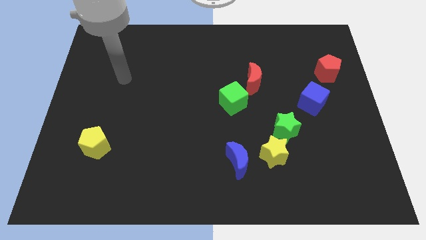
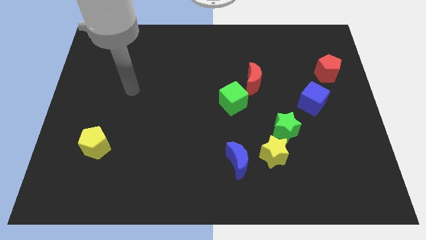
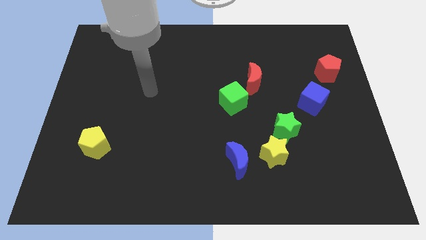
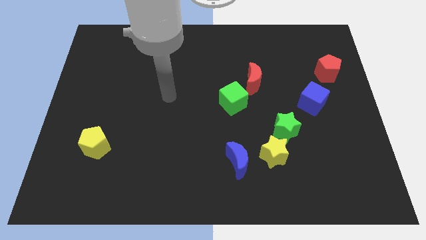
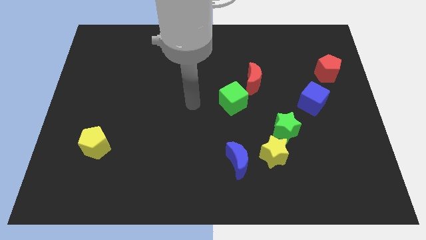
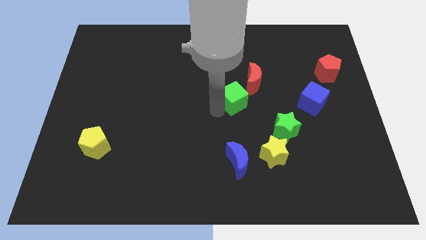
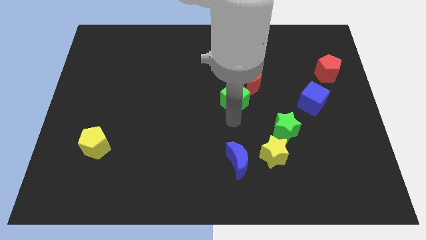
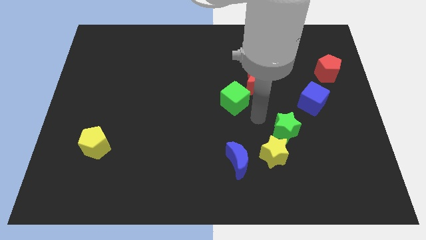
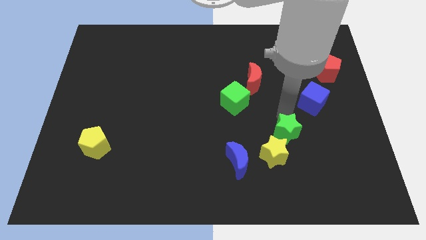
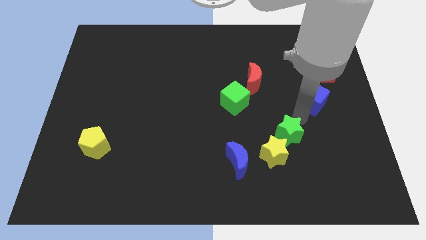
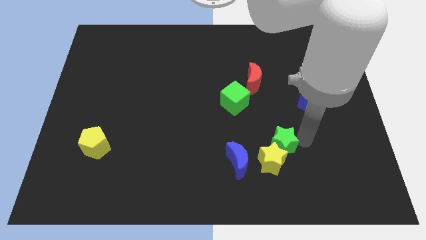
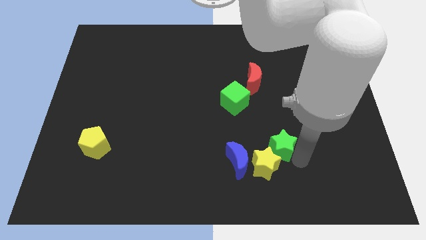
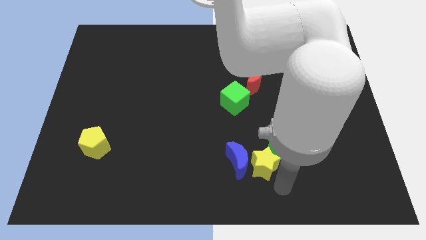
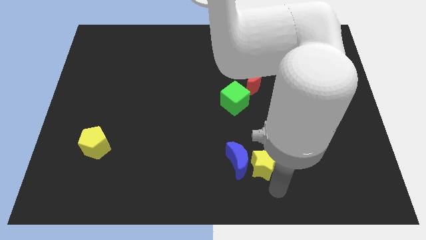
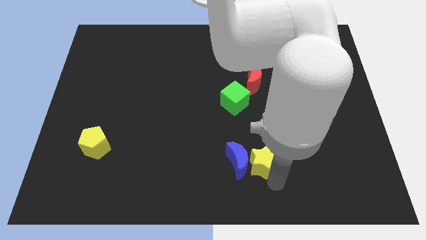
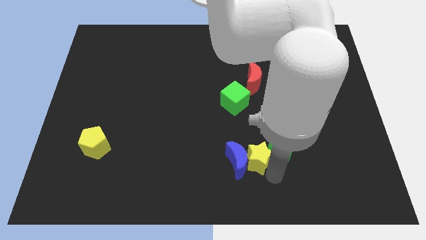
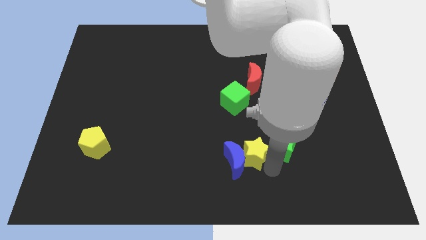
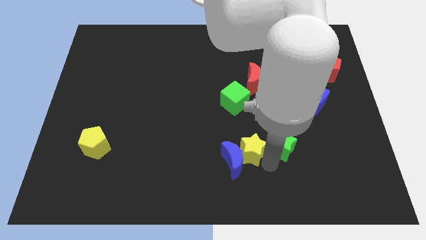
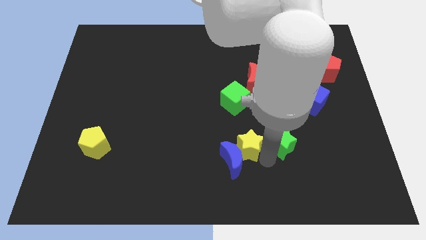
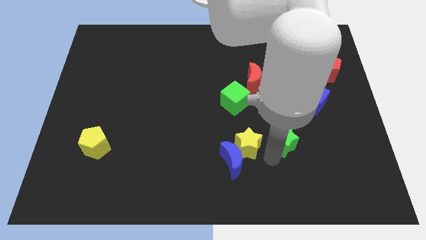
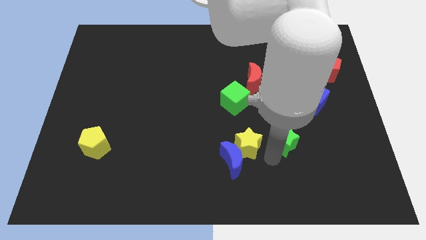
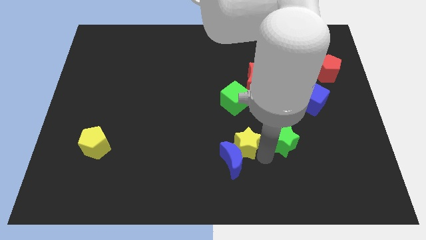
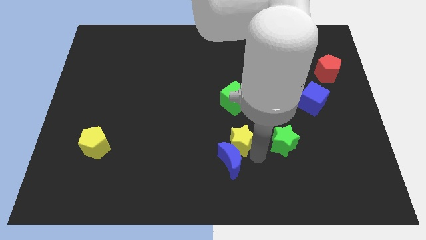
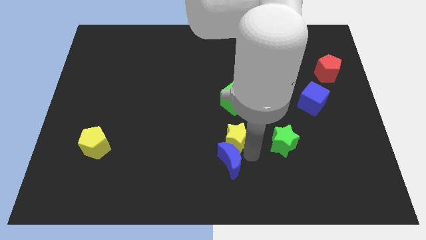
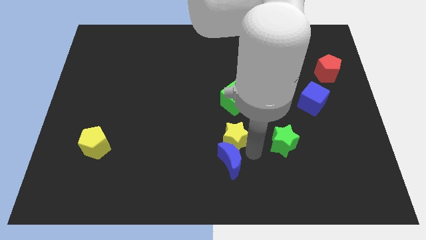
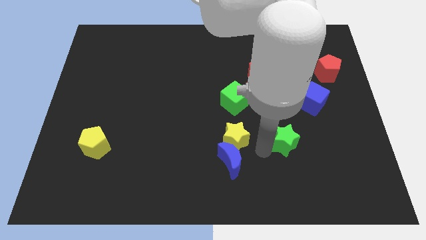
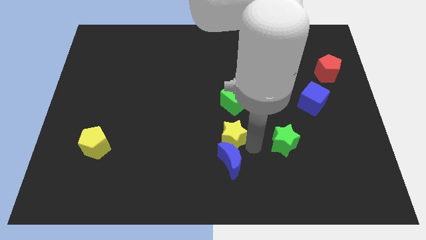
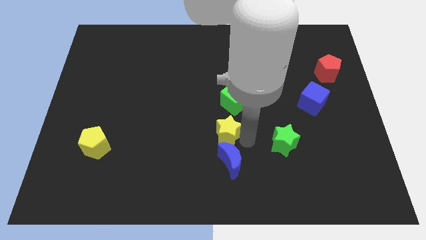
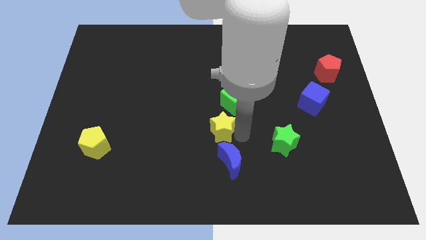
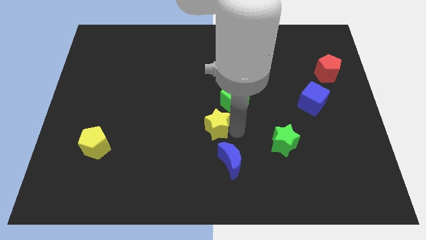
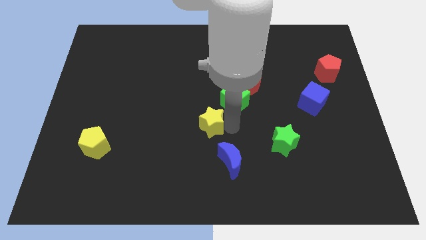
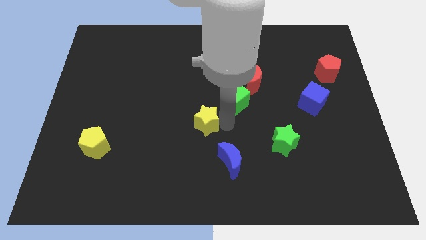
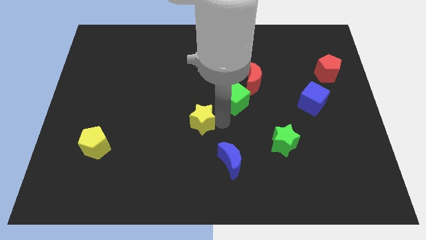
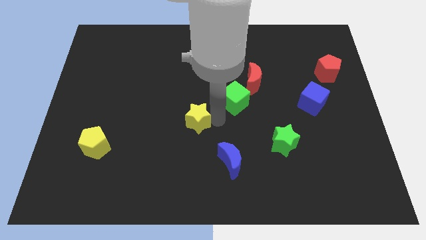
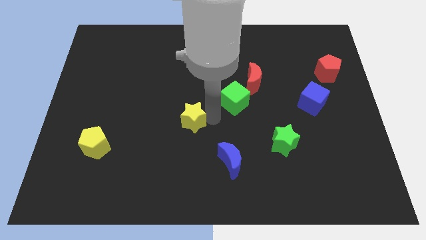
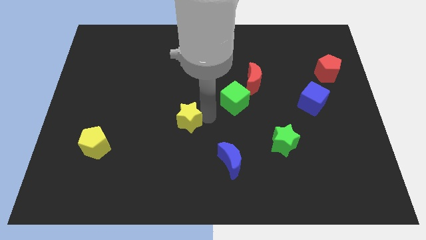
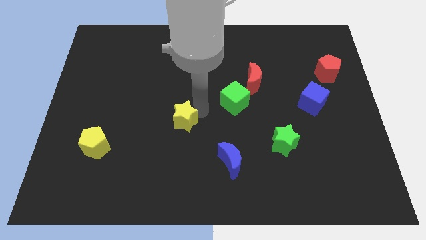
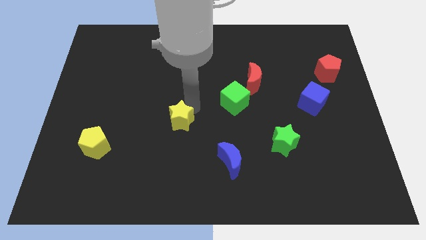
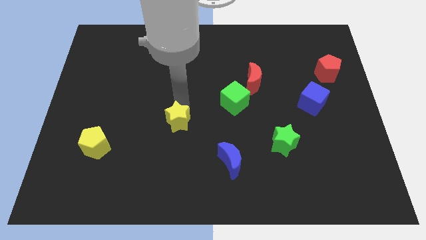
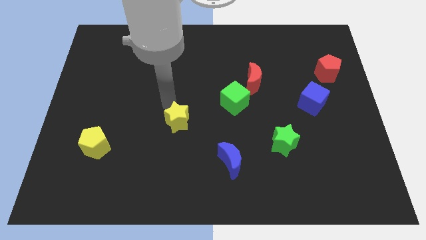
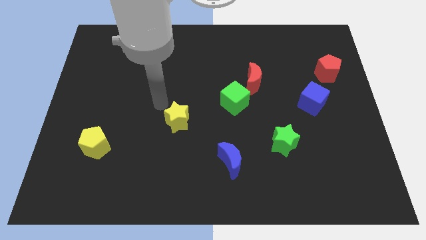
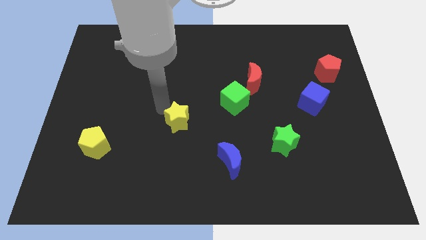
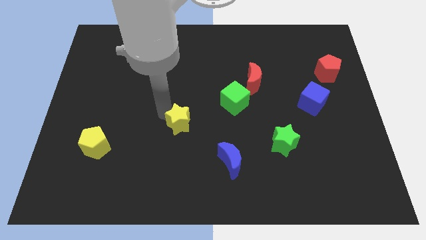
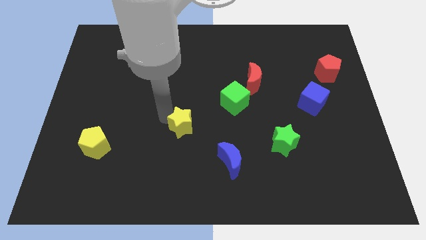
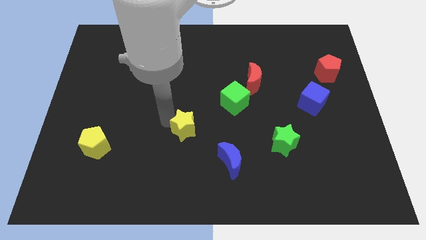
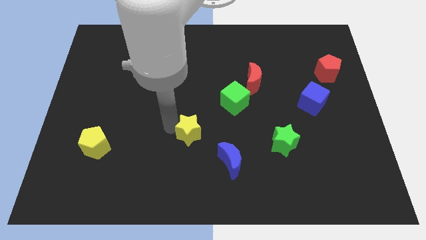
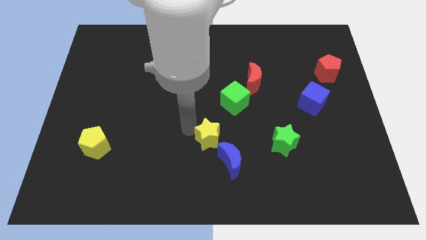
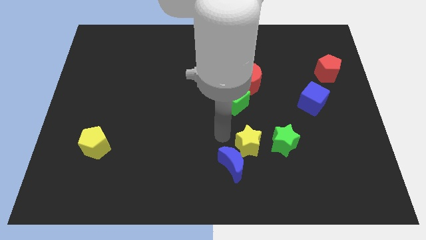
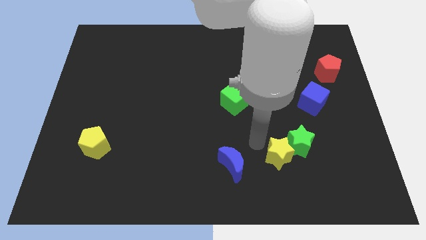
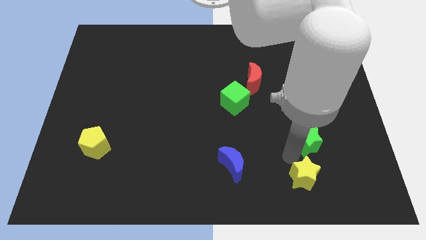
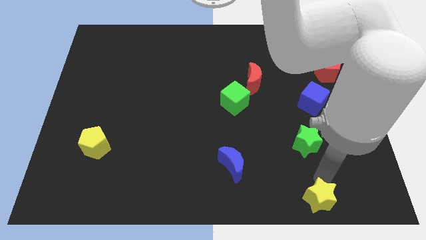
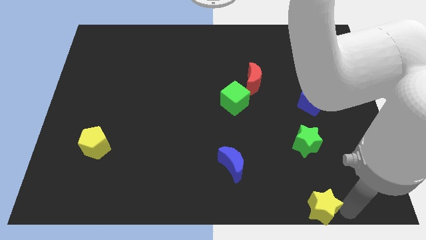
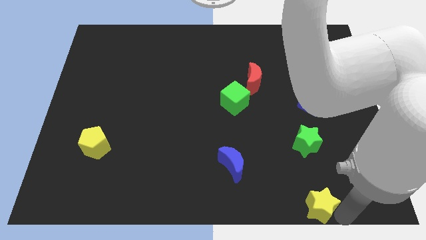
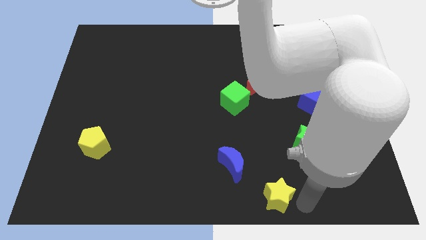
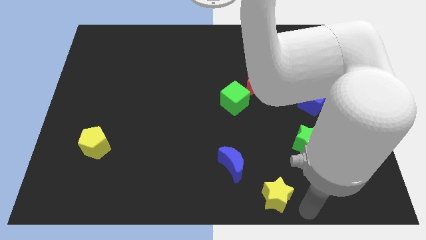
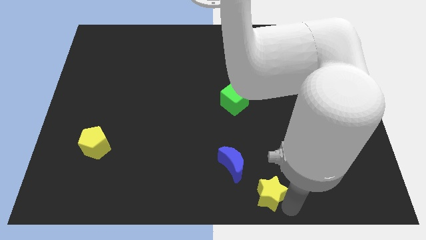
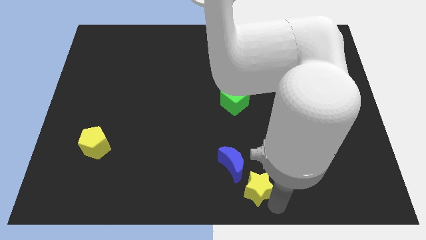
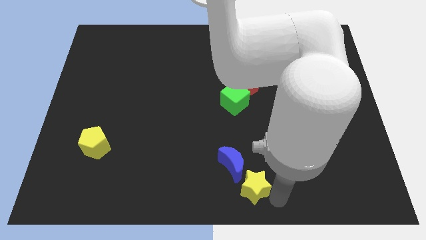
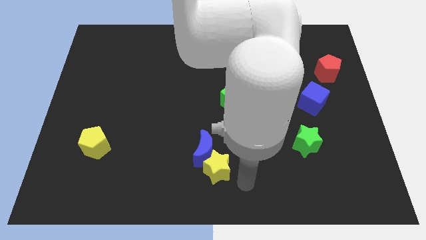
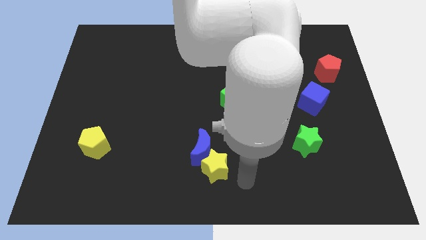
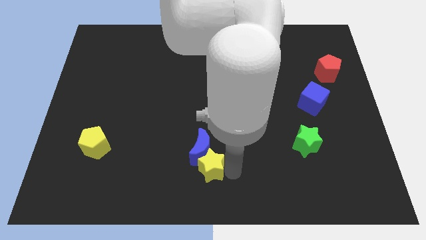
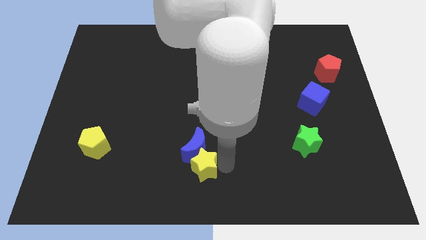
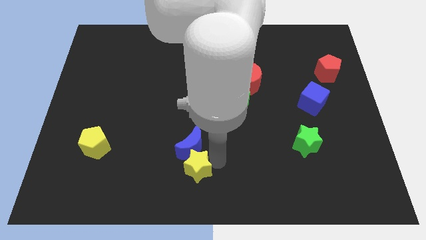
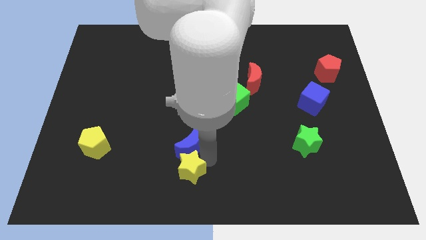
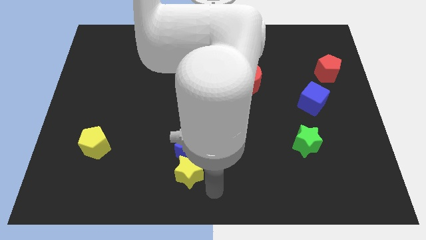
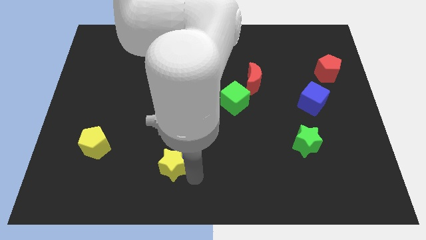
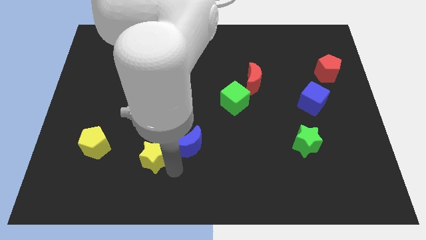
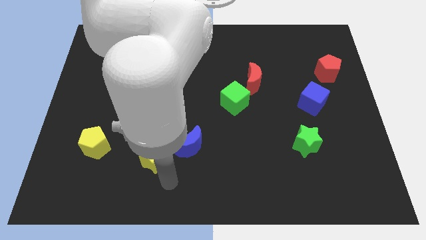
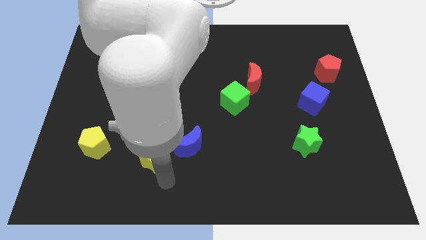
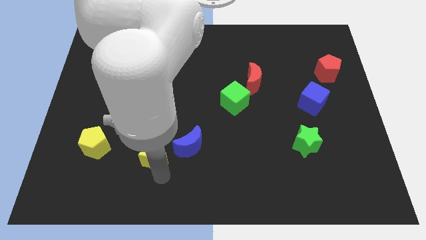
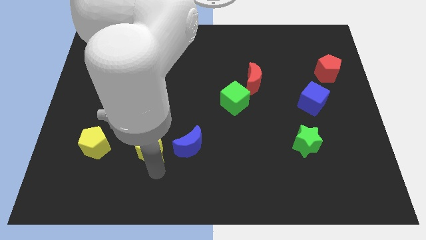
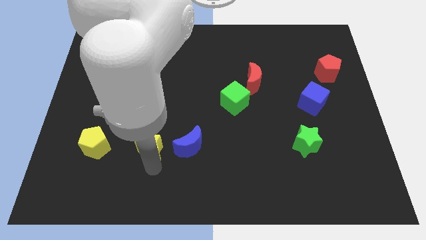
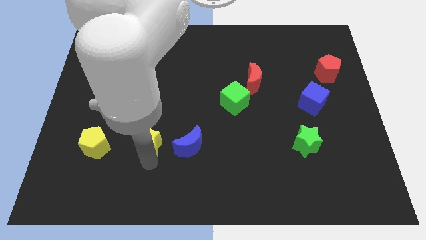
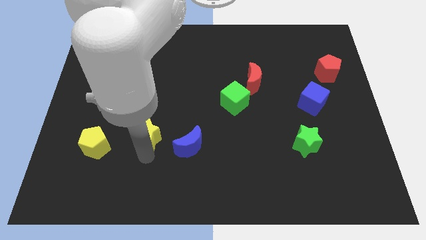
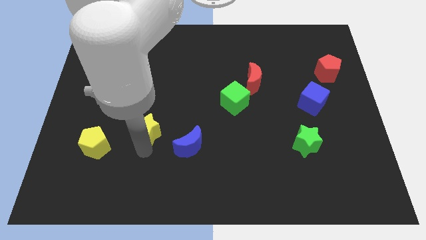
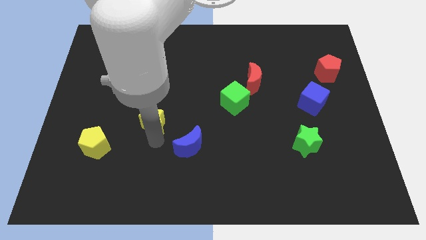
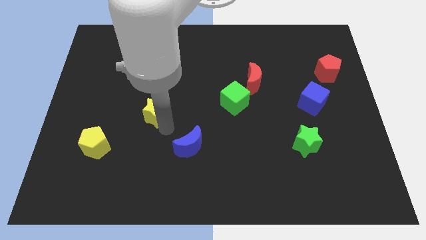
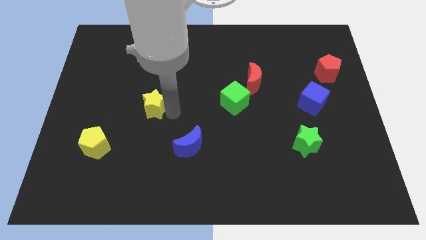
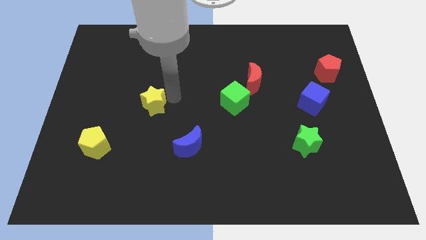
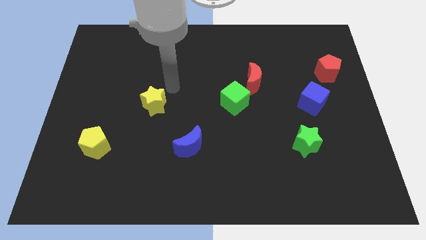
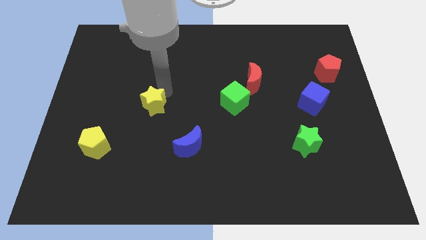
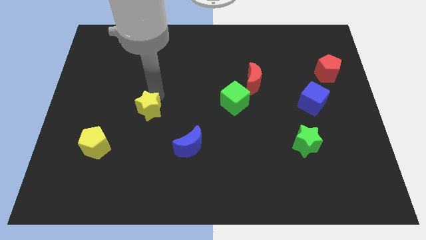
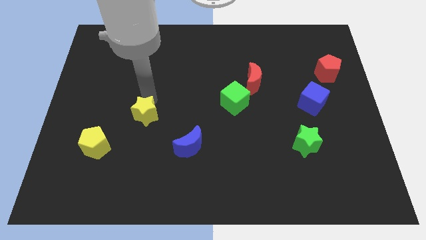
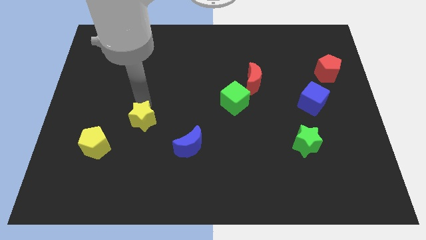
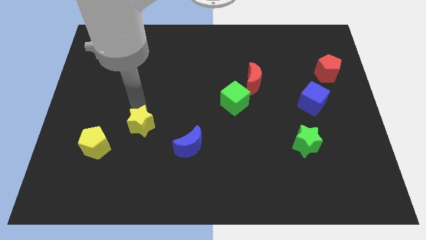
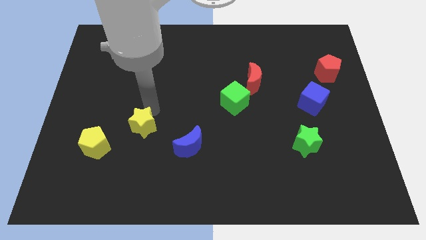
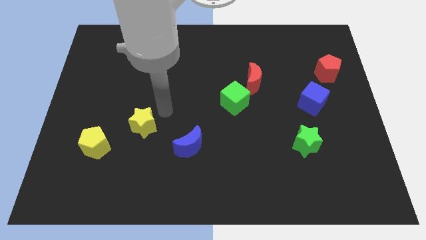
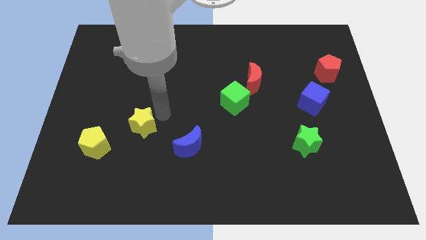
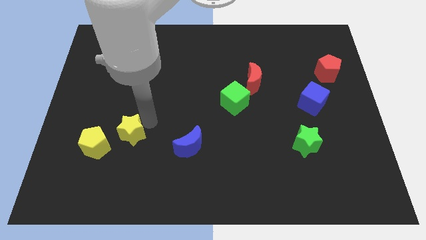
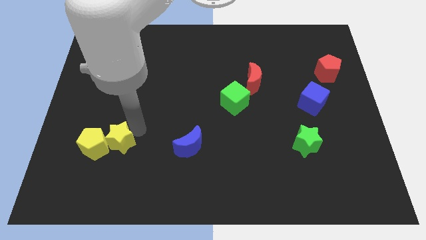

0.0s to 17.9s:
slide the yellow star next to the yellow pentagon
